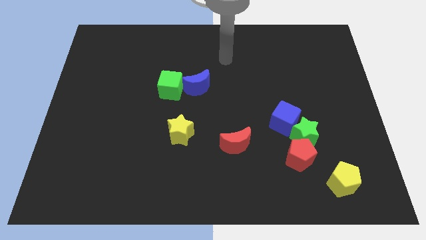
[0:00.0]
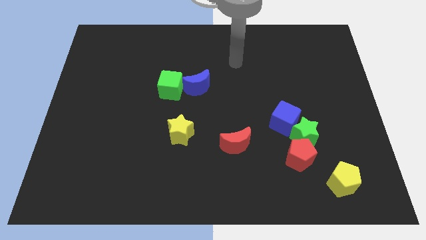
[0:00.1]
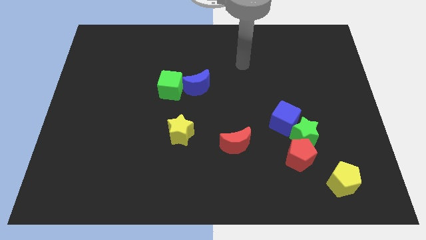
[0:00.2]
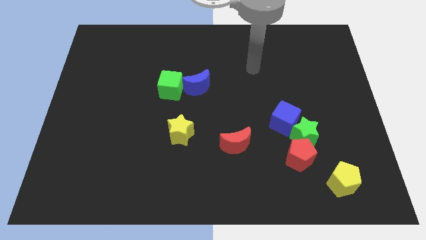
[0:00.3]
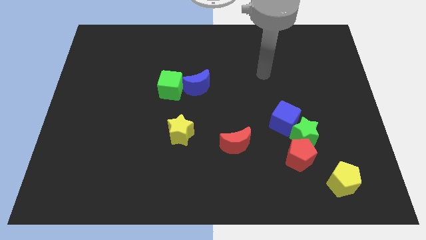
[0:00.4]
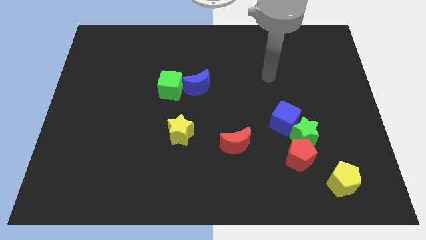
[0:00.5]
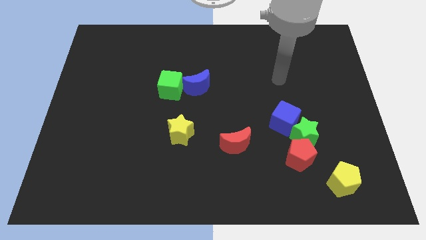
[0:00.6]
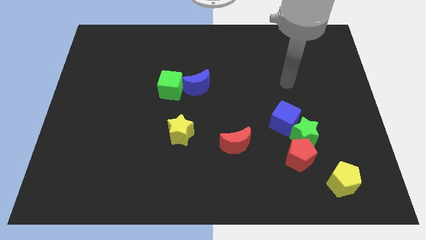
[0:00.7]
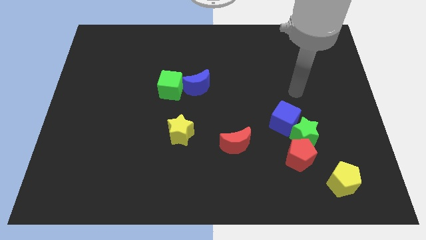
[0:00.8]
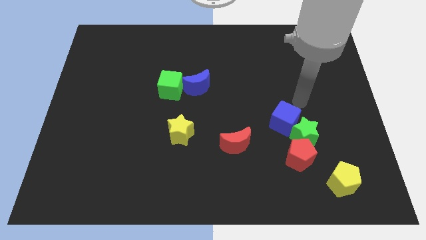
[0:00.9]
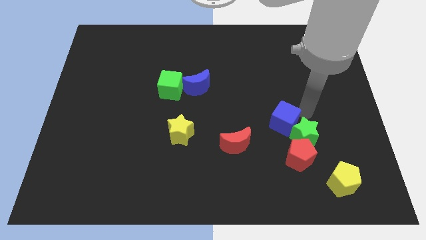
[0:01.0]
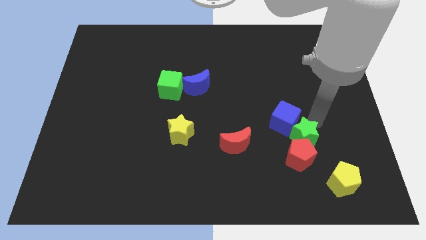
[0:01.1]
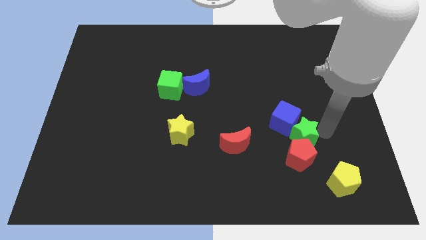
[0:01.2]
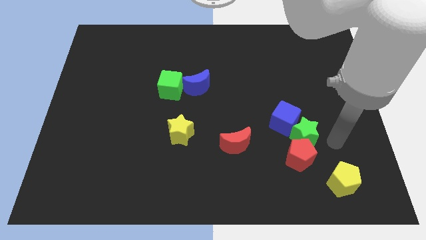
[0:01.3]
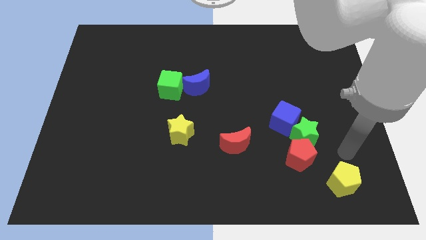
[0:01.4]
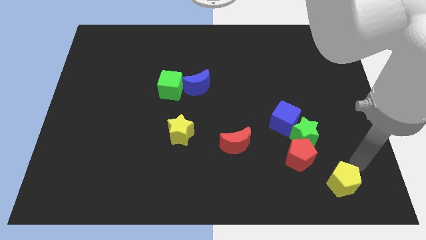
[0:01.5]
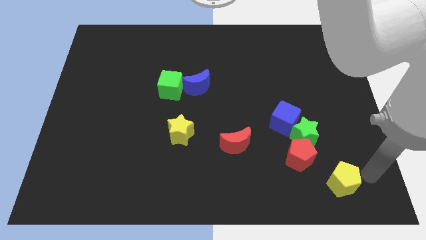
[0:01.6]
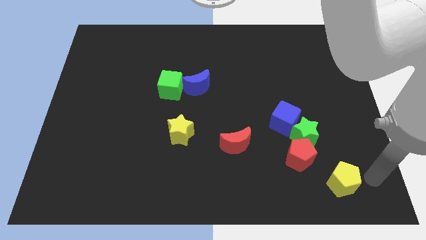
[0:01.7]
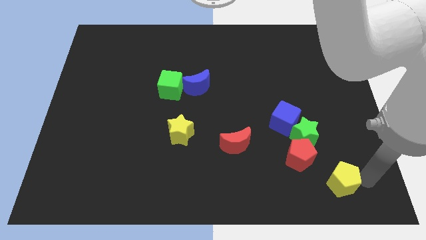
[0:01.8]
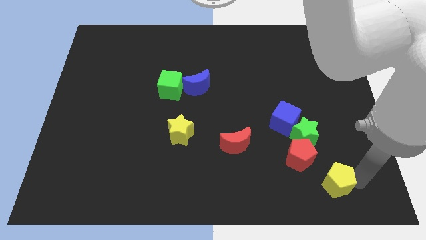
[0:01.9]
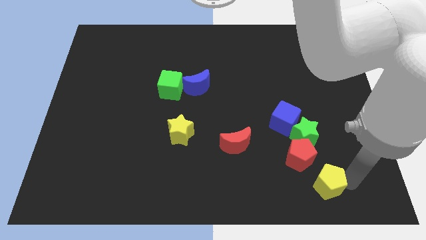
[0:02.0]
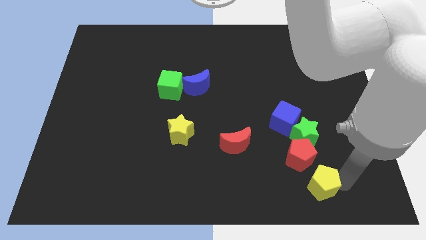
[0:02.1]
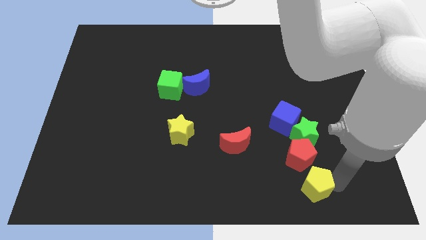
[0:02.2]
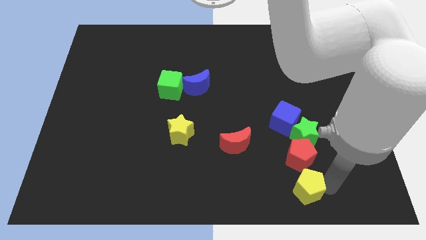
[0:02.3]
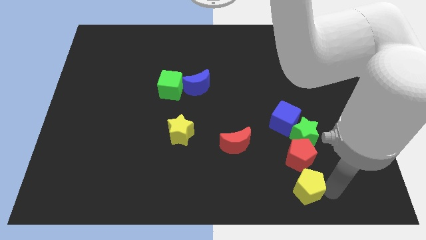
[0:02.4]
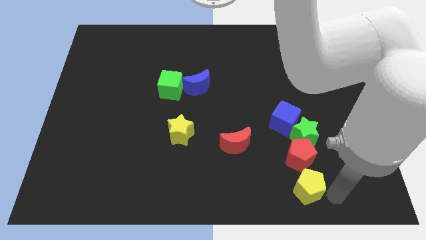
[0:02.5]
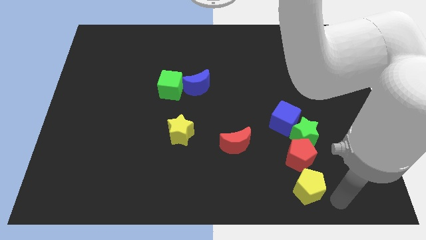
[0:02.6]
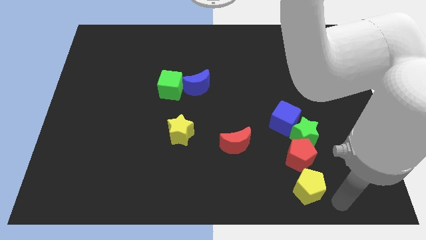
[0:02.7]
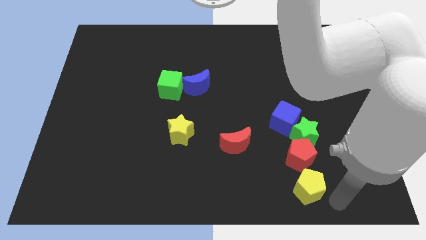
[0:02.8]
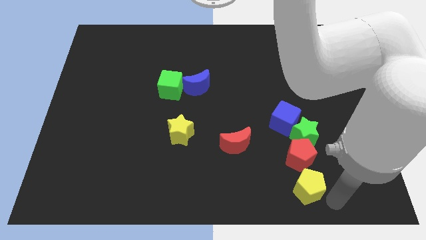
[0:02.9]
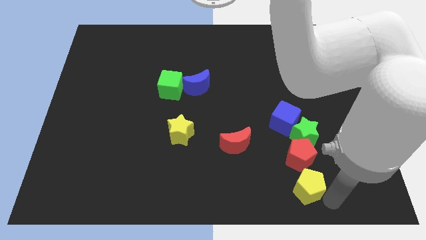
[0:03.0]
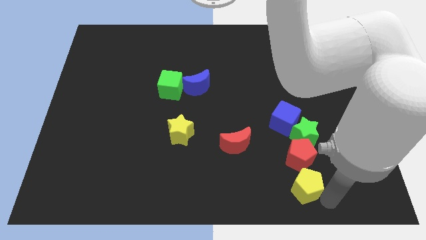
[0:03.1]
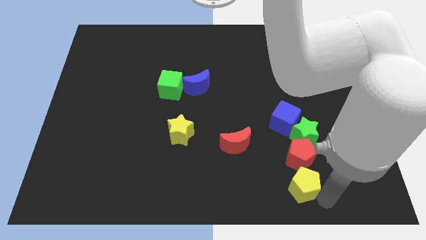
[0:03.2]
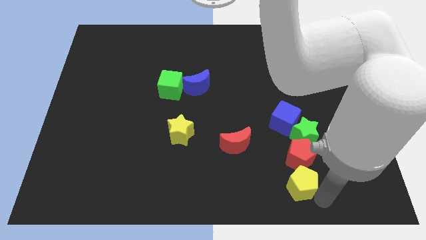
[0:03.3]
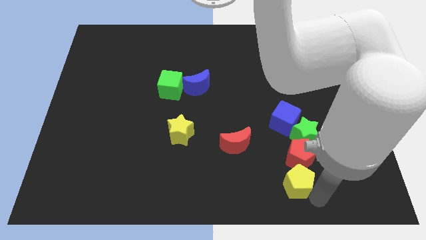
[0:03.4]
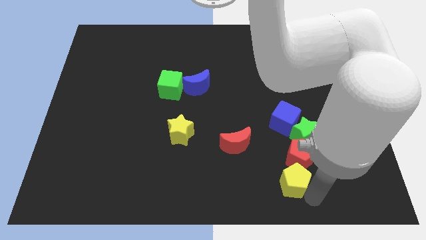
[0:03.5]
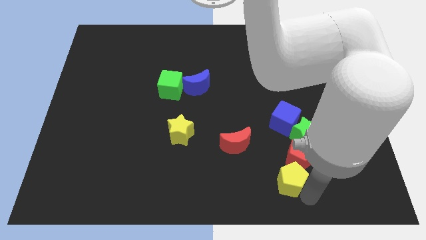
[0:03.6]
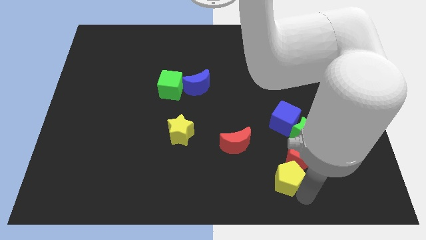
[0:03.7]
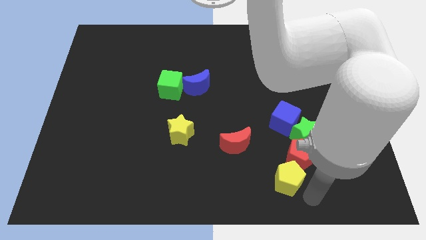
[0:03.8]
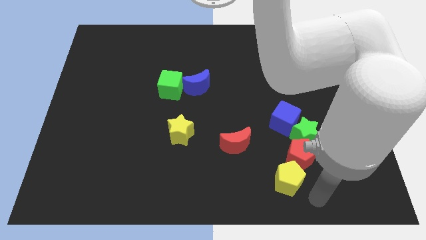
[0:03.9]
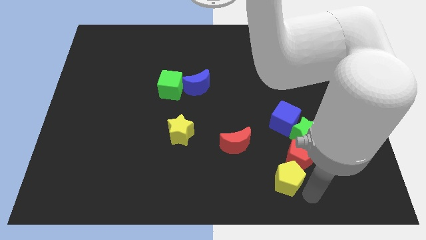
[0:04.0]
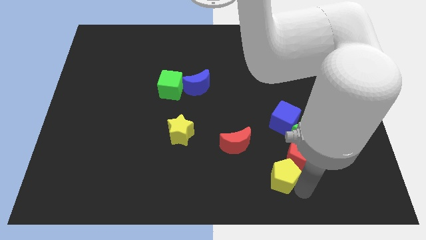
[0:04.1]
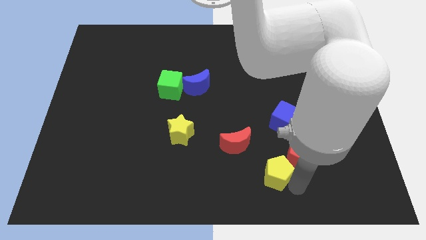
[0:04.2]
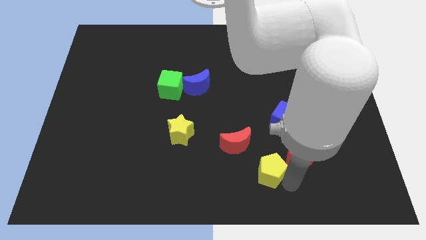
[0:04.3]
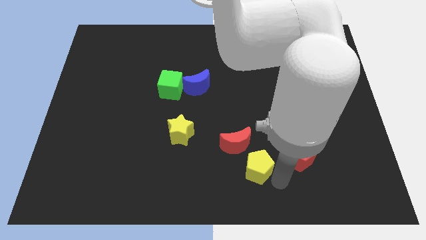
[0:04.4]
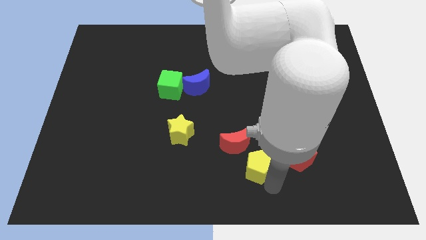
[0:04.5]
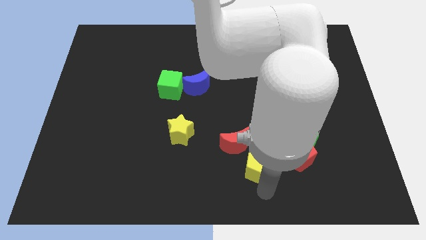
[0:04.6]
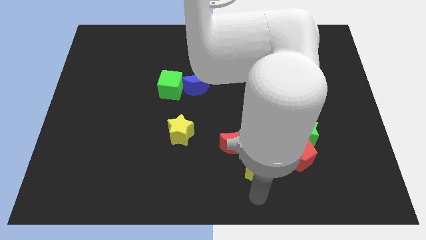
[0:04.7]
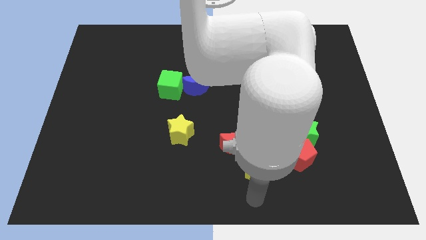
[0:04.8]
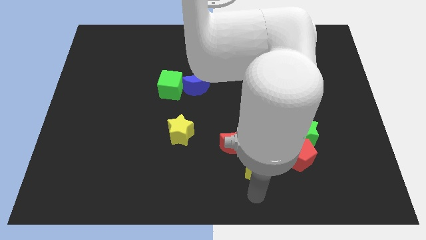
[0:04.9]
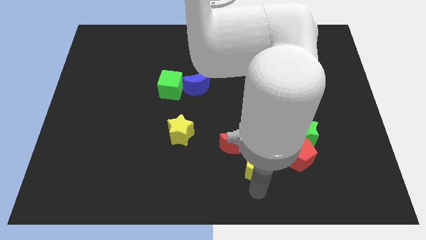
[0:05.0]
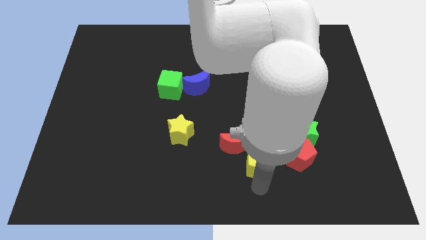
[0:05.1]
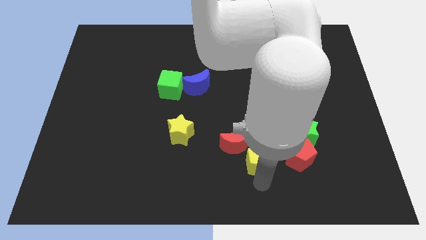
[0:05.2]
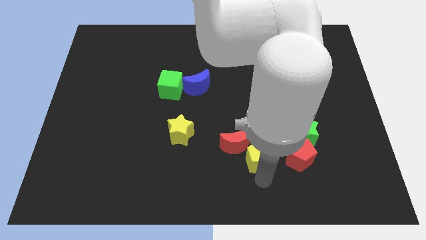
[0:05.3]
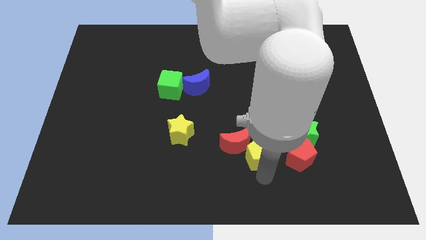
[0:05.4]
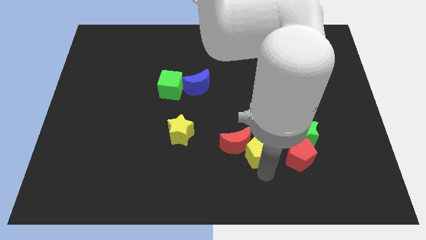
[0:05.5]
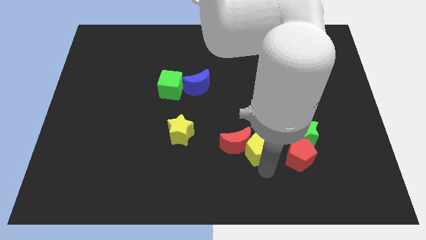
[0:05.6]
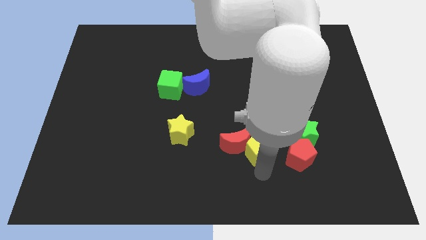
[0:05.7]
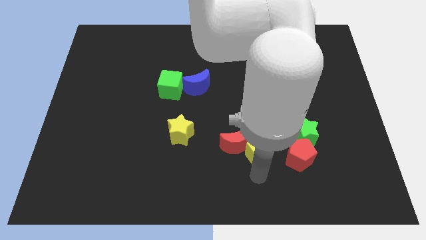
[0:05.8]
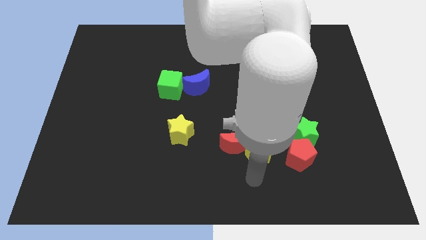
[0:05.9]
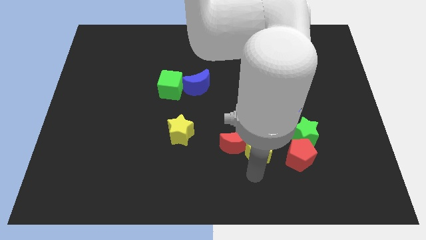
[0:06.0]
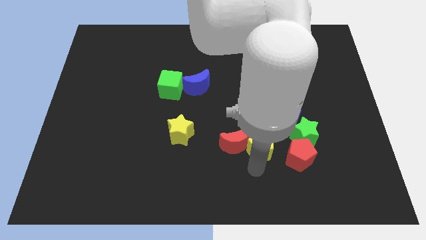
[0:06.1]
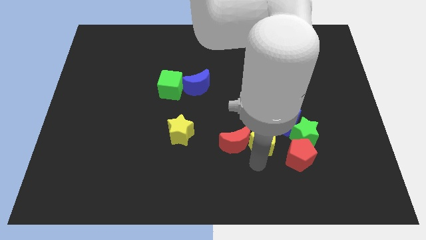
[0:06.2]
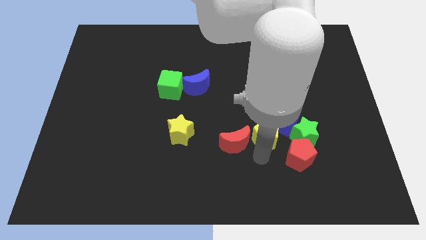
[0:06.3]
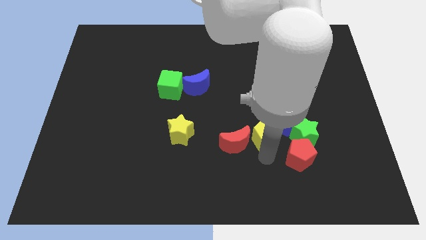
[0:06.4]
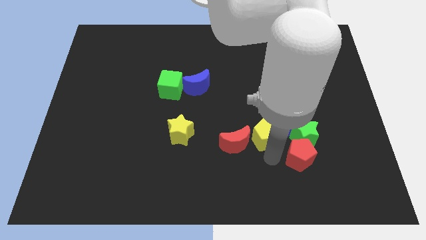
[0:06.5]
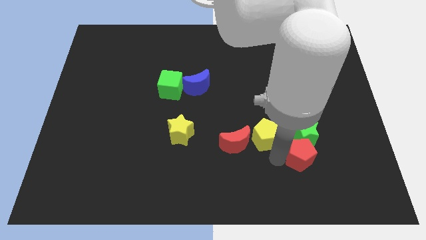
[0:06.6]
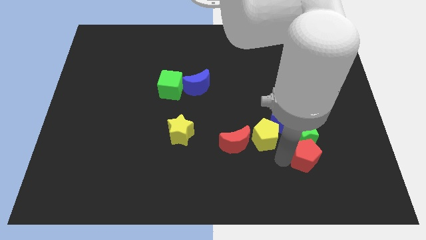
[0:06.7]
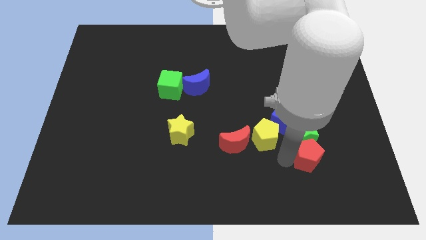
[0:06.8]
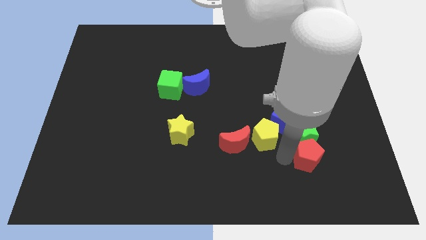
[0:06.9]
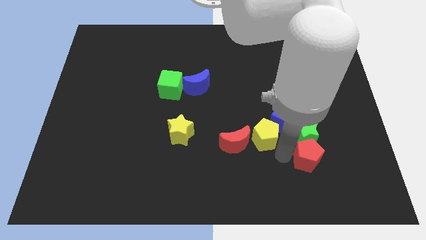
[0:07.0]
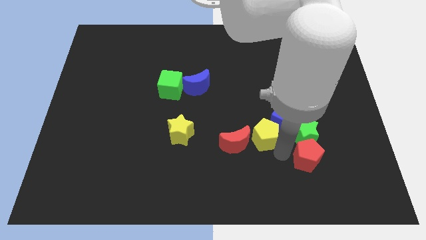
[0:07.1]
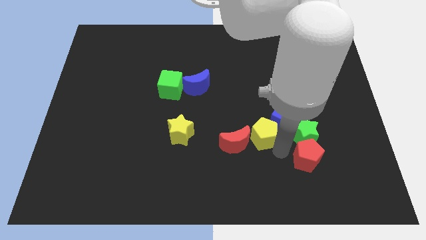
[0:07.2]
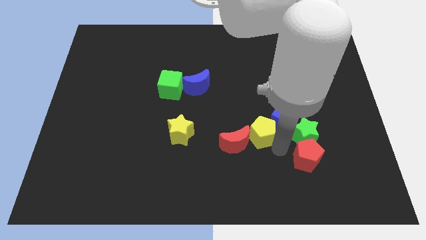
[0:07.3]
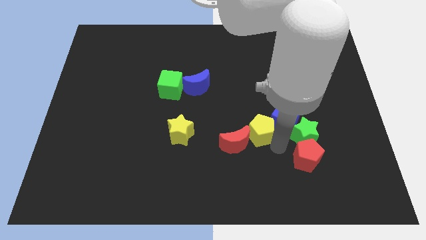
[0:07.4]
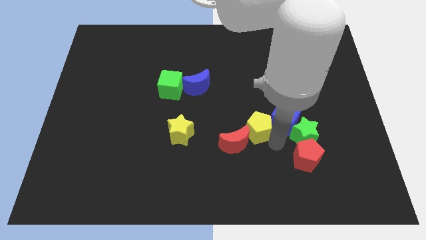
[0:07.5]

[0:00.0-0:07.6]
move the yellow pentagon upwards and then to the left

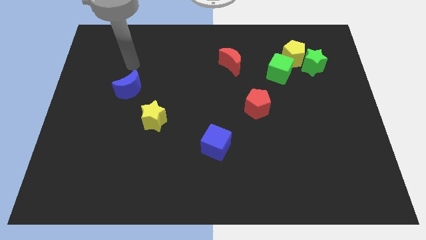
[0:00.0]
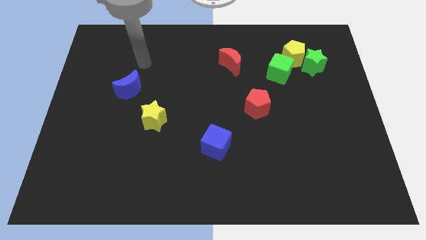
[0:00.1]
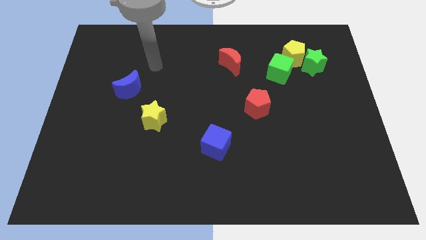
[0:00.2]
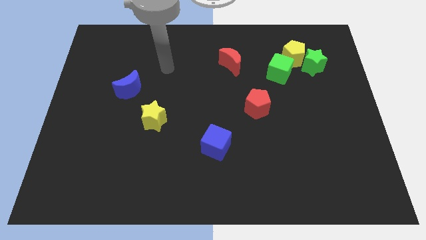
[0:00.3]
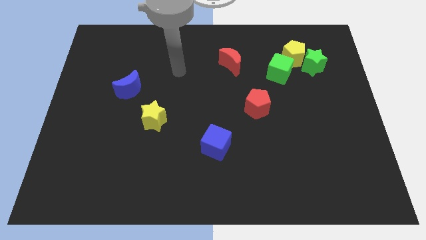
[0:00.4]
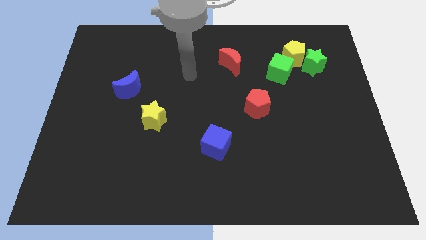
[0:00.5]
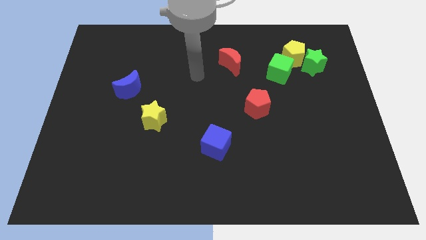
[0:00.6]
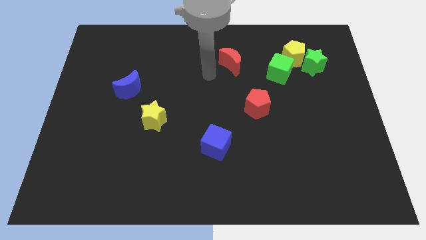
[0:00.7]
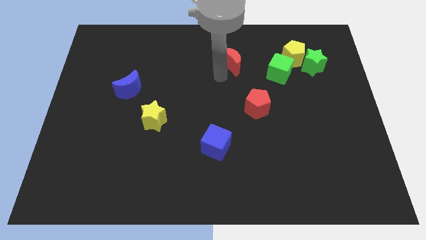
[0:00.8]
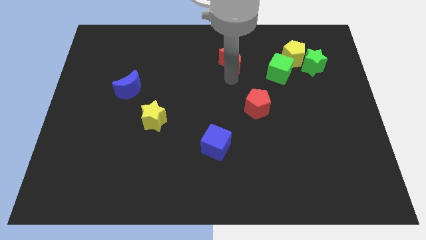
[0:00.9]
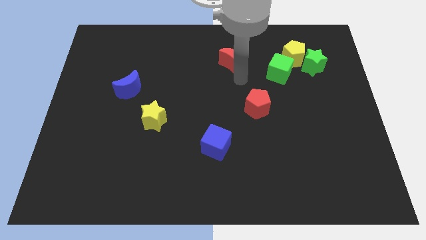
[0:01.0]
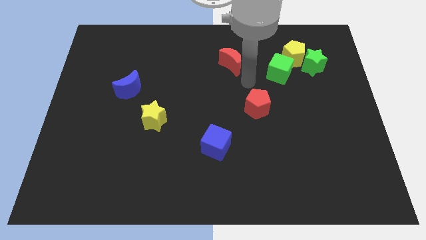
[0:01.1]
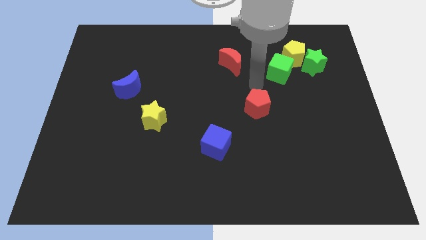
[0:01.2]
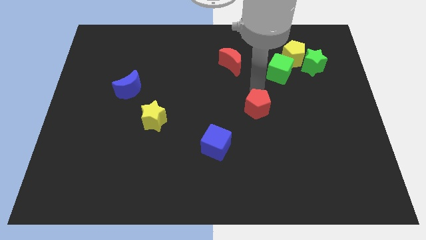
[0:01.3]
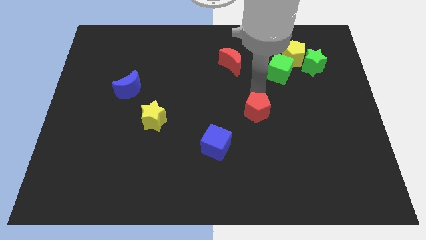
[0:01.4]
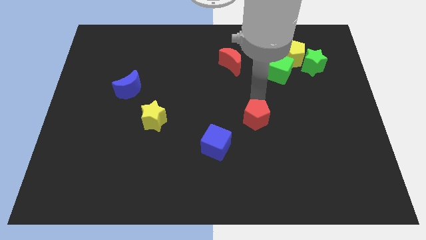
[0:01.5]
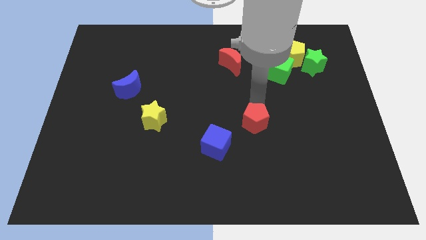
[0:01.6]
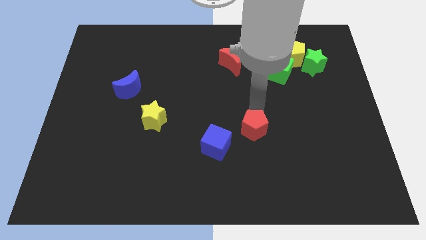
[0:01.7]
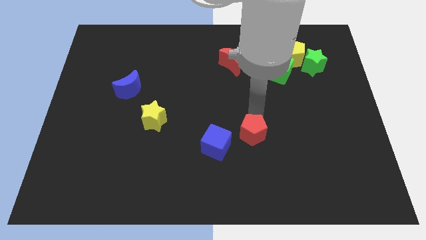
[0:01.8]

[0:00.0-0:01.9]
push the red pentagon downwards a little bit
